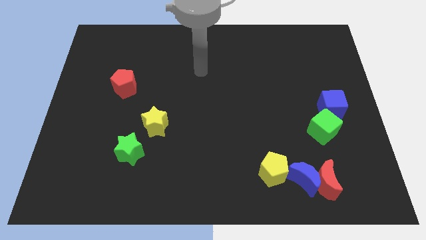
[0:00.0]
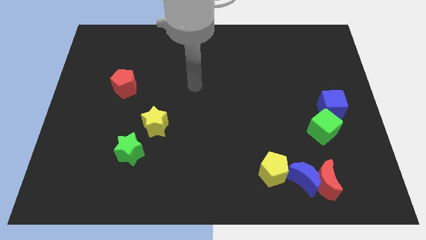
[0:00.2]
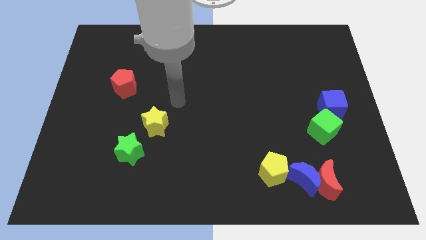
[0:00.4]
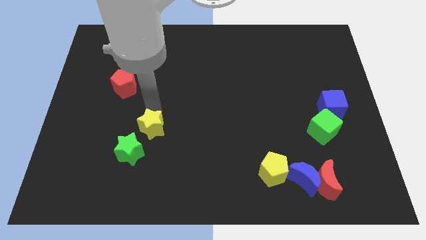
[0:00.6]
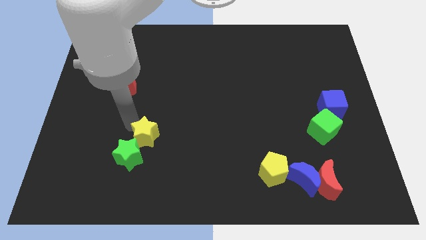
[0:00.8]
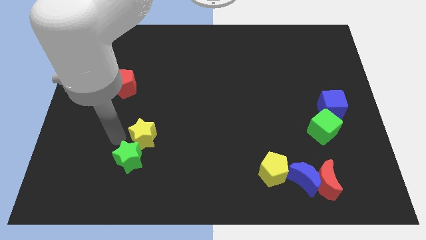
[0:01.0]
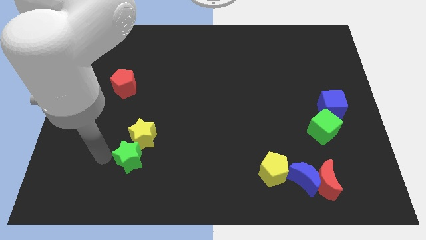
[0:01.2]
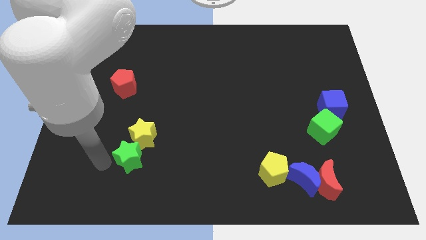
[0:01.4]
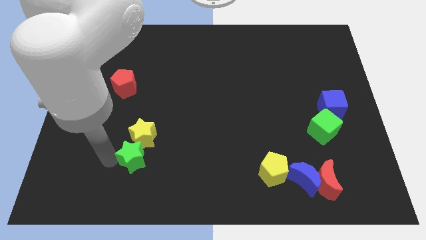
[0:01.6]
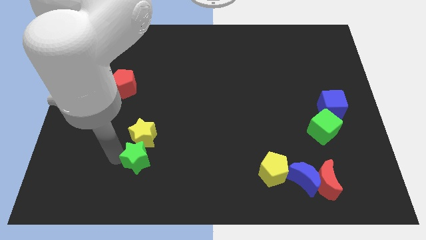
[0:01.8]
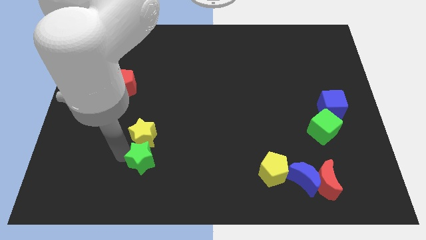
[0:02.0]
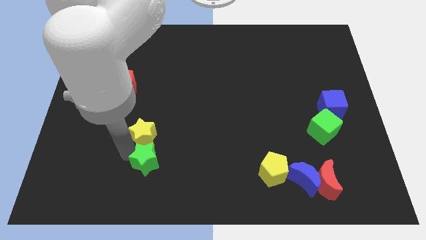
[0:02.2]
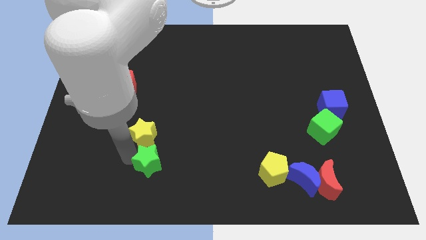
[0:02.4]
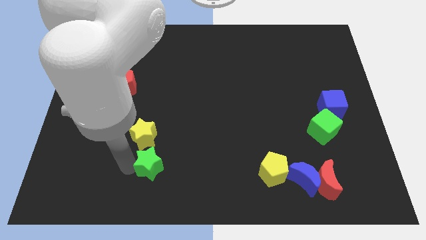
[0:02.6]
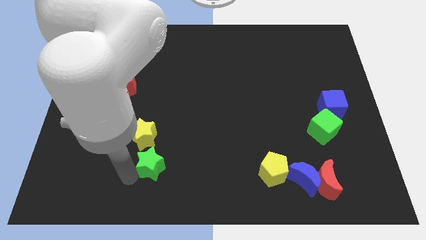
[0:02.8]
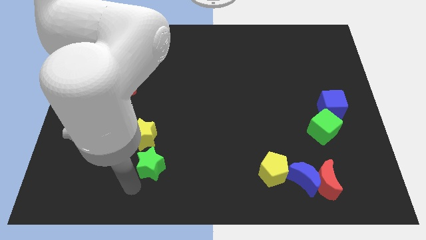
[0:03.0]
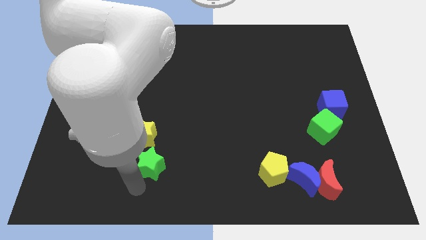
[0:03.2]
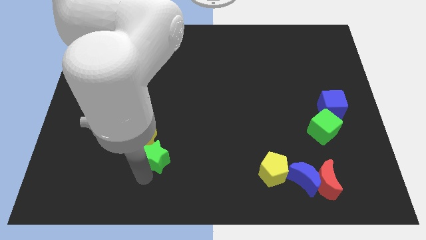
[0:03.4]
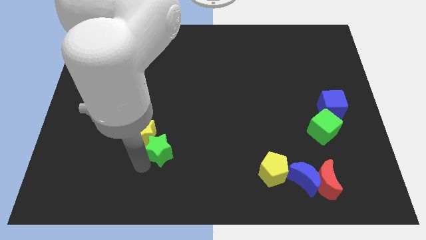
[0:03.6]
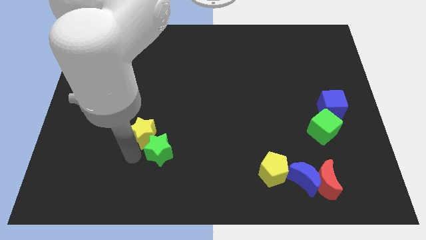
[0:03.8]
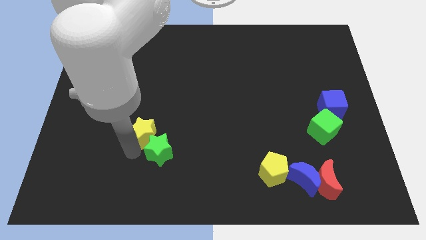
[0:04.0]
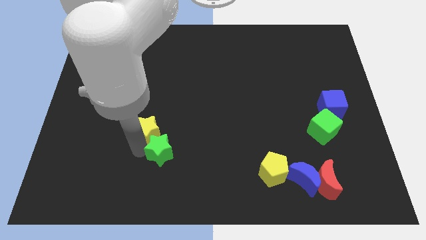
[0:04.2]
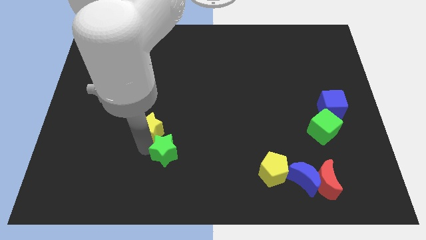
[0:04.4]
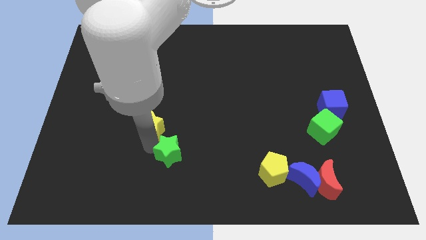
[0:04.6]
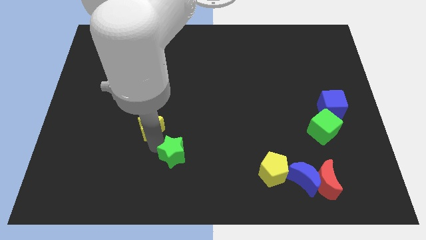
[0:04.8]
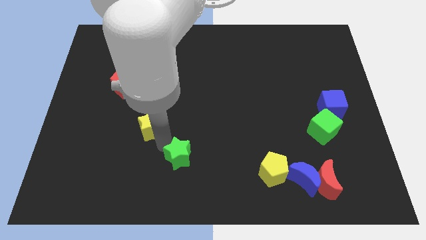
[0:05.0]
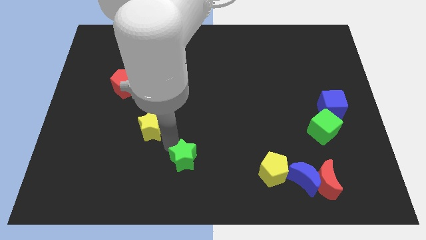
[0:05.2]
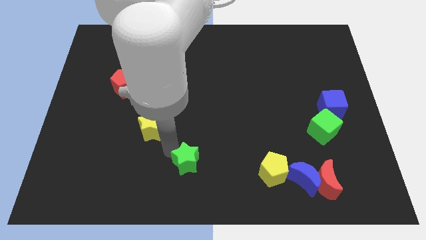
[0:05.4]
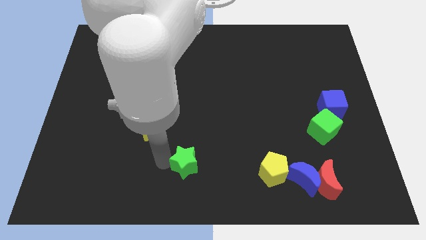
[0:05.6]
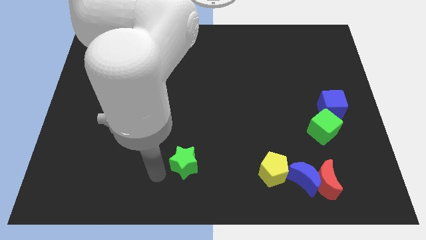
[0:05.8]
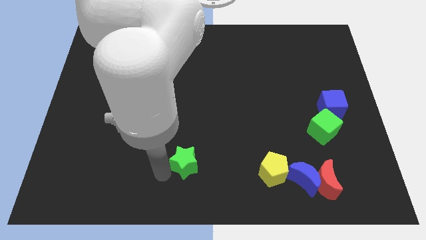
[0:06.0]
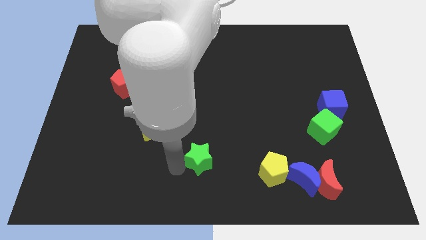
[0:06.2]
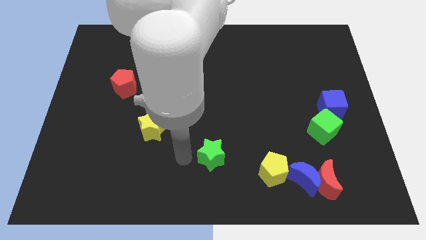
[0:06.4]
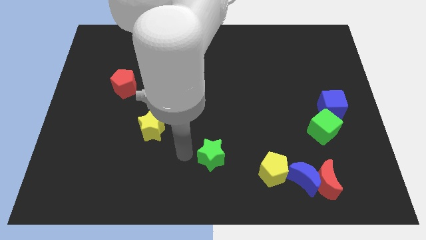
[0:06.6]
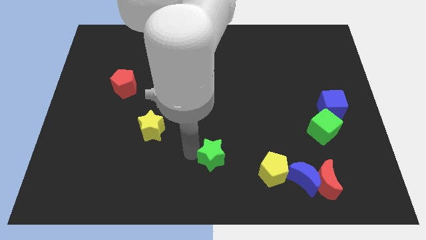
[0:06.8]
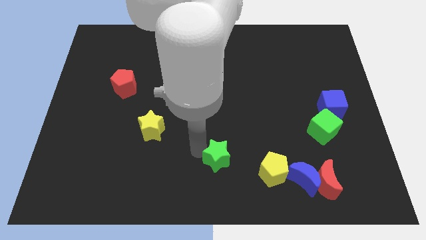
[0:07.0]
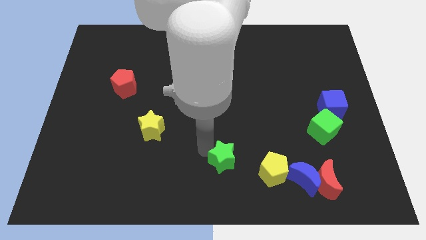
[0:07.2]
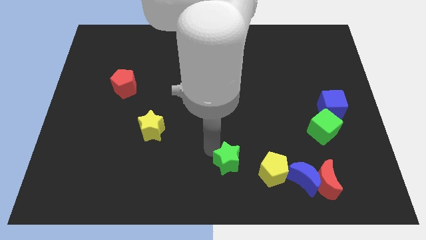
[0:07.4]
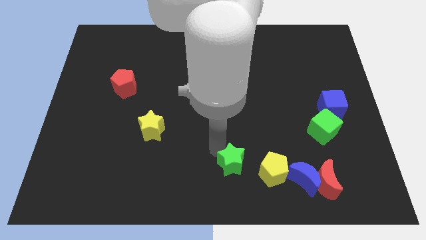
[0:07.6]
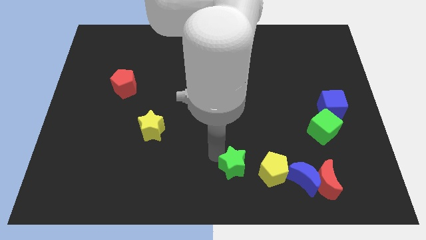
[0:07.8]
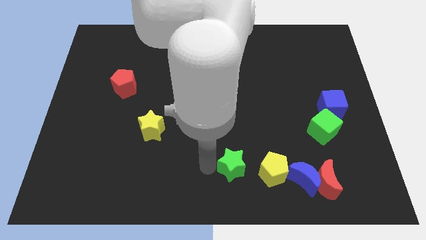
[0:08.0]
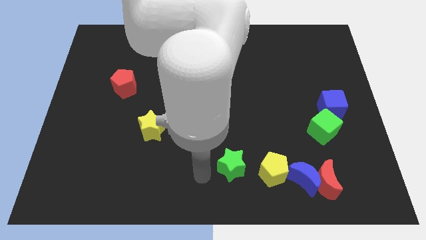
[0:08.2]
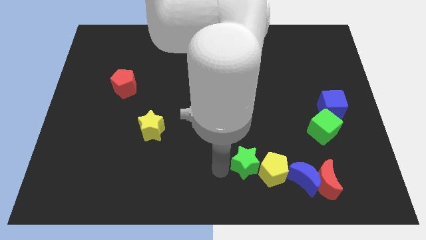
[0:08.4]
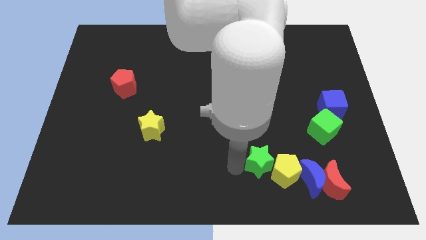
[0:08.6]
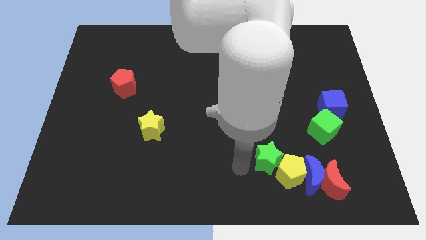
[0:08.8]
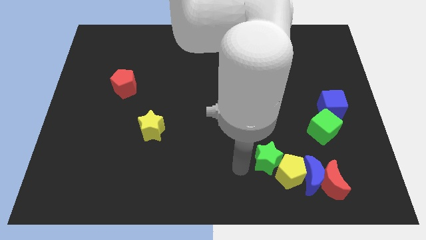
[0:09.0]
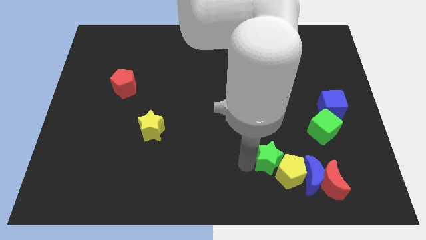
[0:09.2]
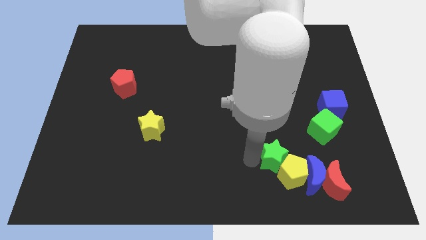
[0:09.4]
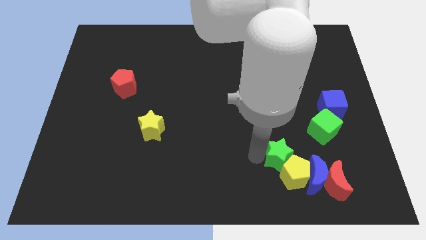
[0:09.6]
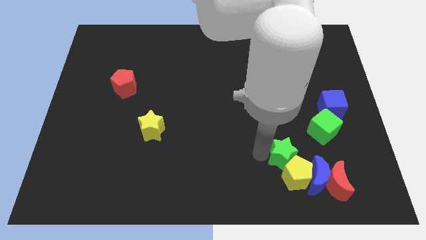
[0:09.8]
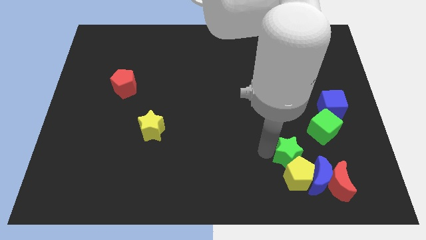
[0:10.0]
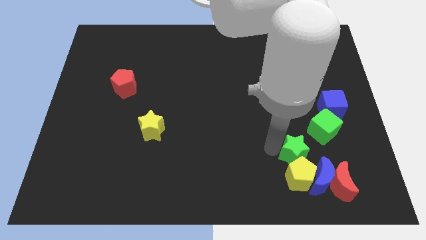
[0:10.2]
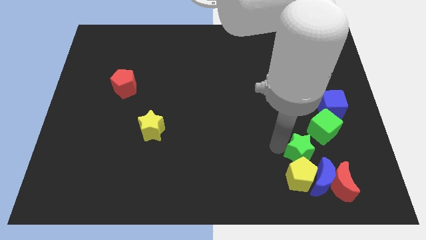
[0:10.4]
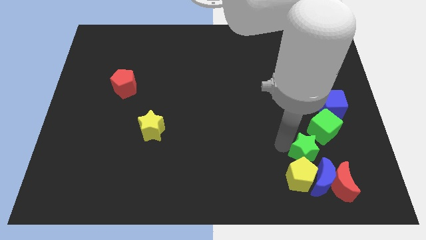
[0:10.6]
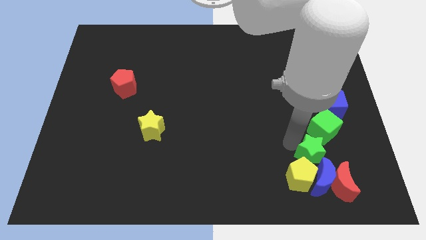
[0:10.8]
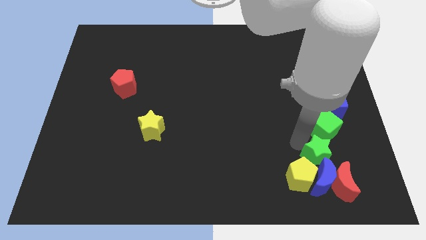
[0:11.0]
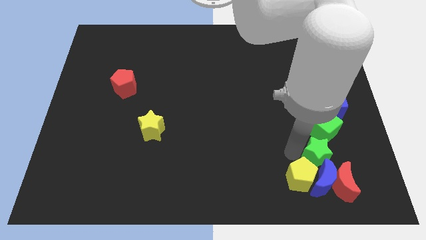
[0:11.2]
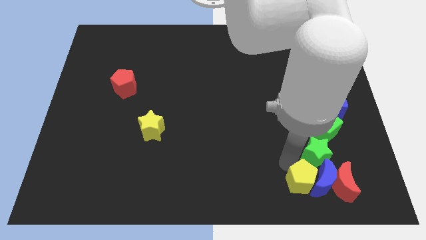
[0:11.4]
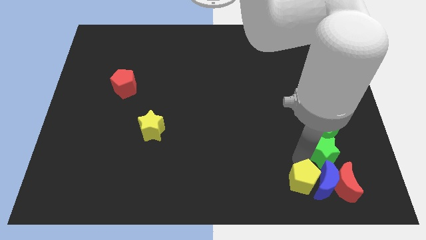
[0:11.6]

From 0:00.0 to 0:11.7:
push the green star below the blue cube

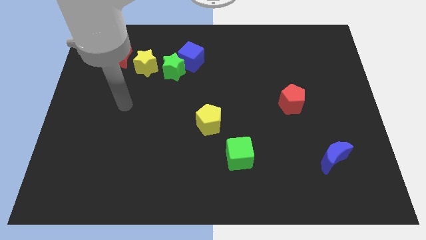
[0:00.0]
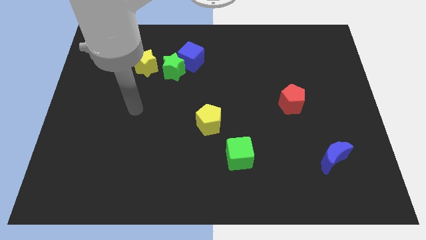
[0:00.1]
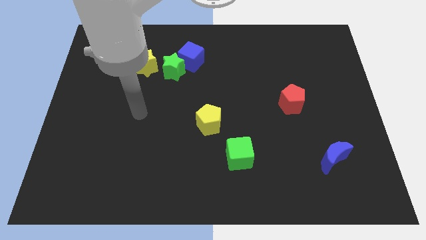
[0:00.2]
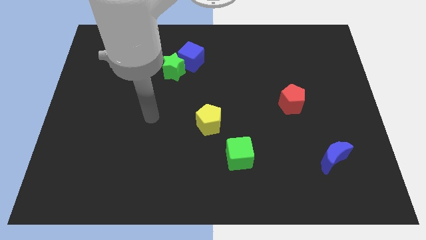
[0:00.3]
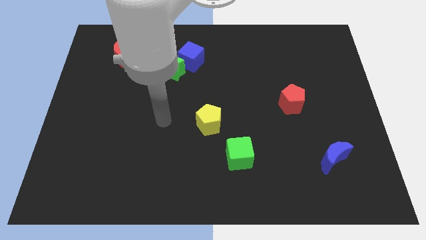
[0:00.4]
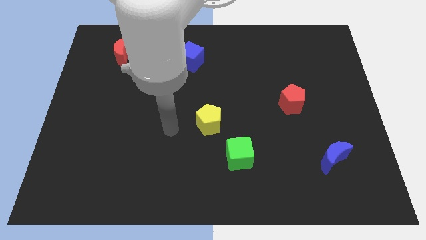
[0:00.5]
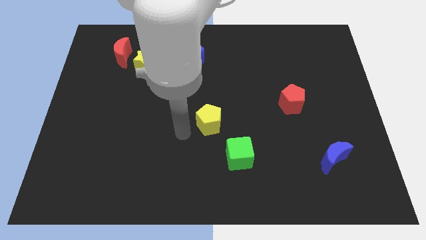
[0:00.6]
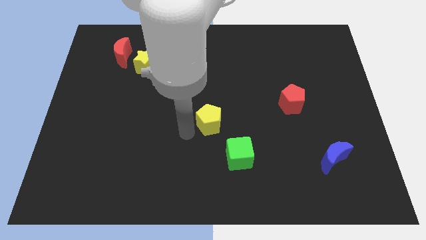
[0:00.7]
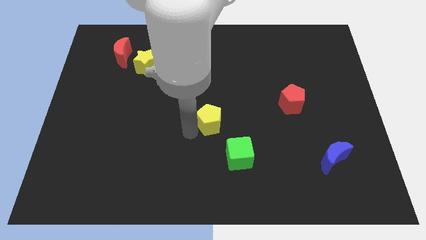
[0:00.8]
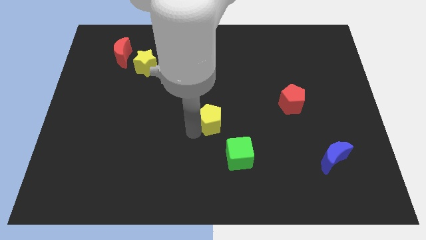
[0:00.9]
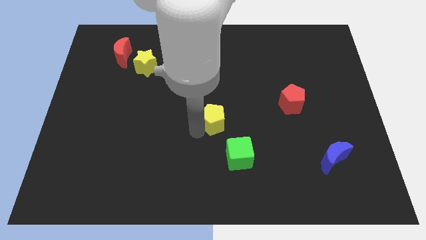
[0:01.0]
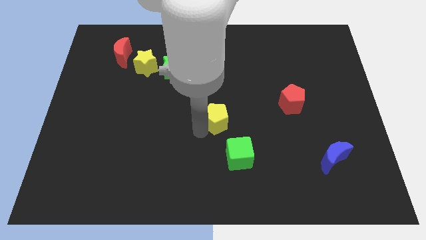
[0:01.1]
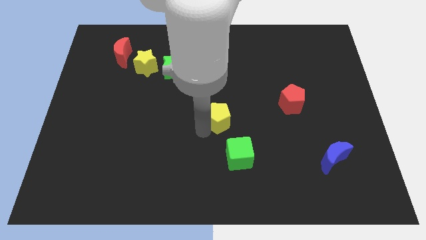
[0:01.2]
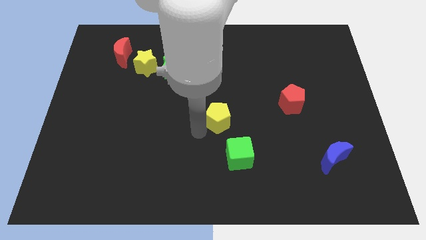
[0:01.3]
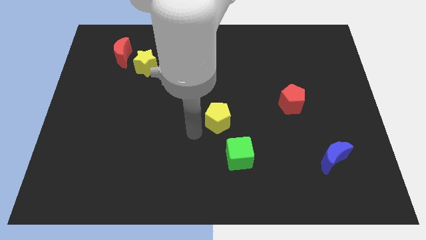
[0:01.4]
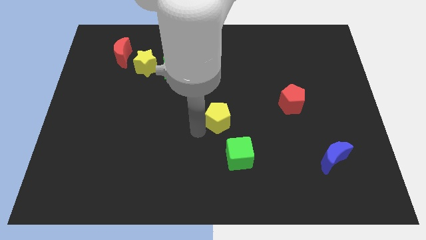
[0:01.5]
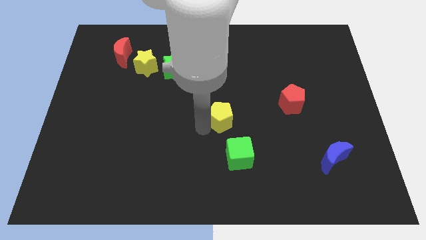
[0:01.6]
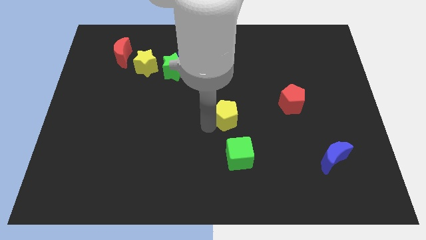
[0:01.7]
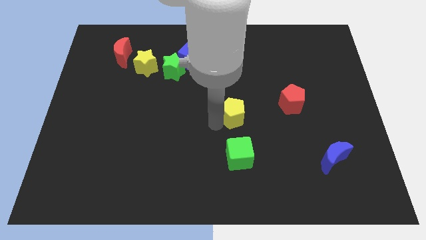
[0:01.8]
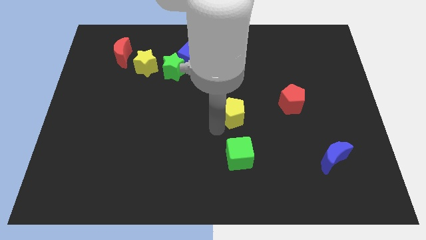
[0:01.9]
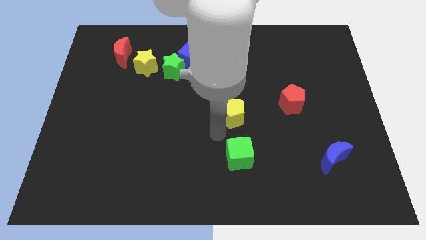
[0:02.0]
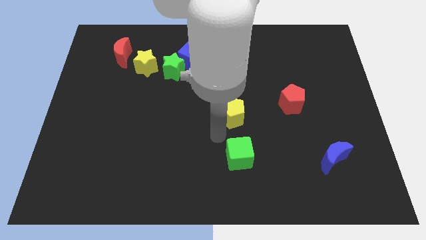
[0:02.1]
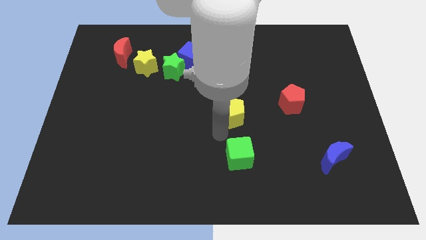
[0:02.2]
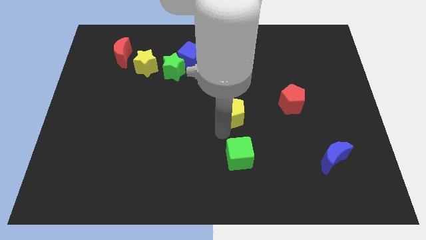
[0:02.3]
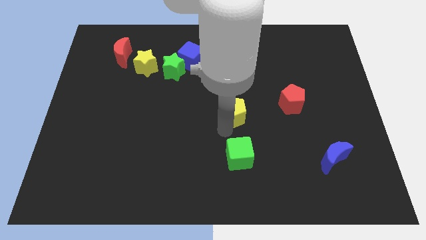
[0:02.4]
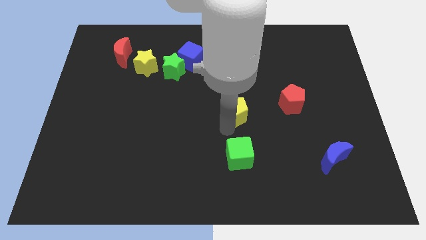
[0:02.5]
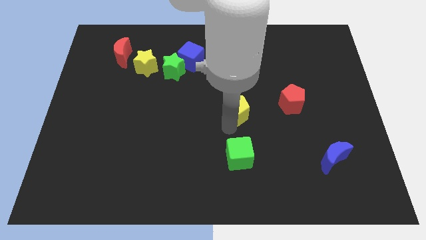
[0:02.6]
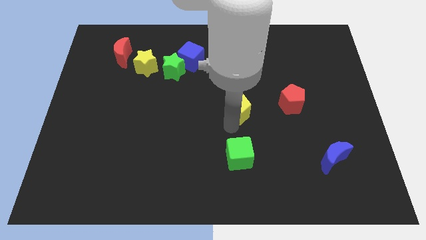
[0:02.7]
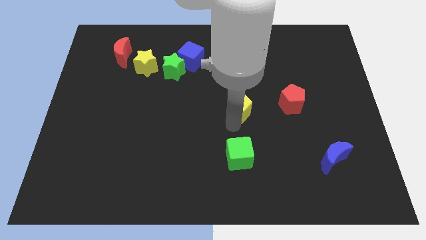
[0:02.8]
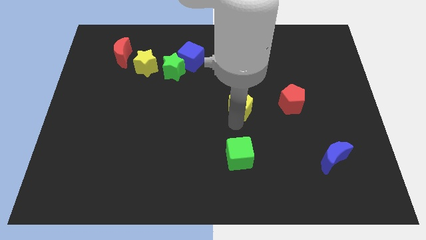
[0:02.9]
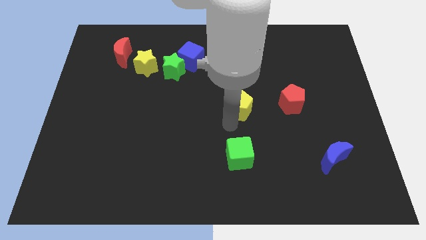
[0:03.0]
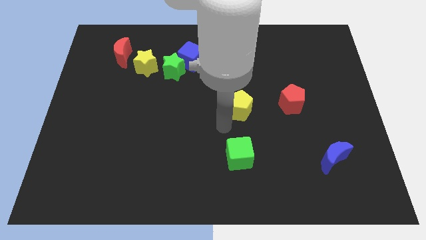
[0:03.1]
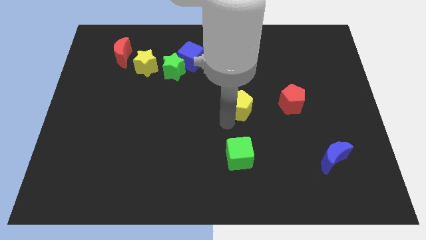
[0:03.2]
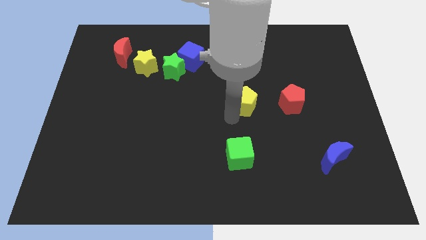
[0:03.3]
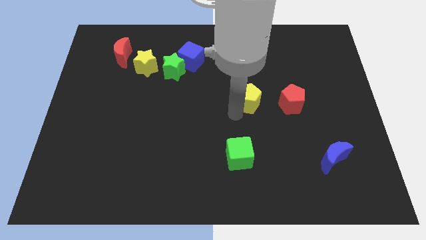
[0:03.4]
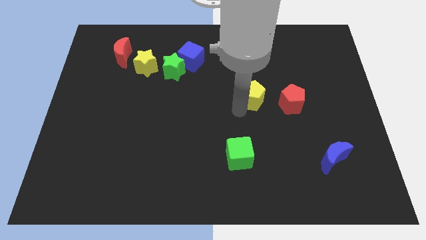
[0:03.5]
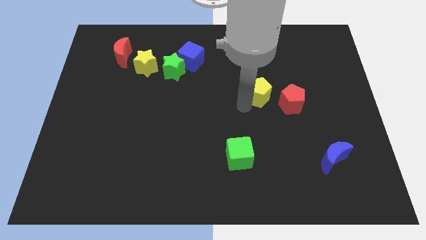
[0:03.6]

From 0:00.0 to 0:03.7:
put the yellow pentagon to the top left side of the red pentagon
